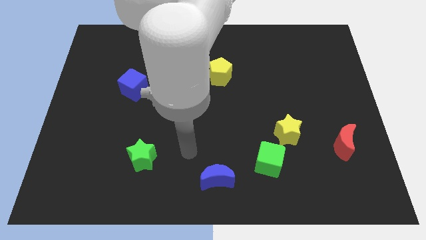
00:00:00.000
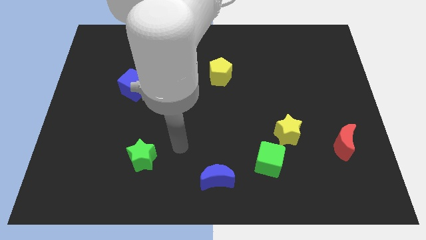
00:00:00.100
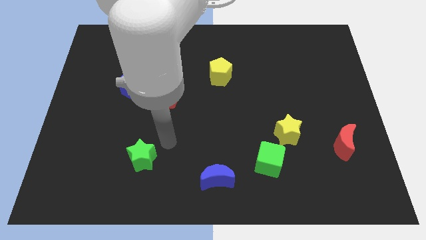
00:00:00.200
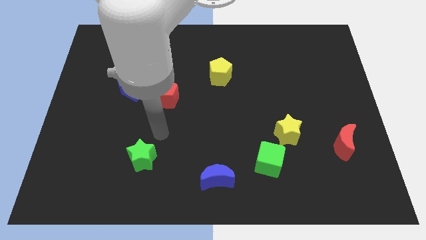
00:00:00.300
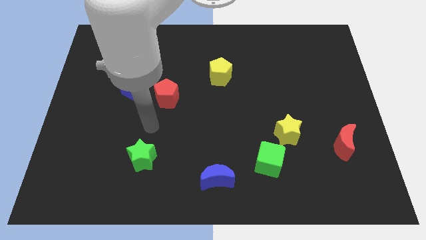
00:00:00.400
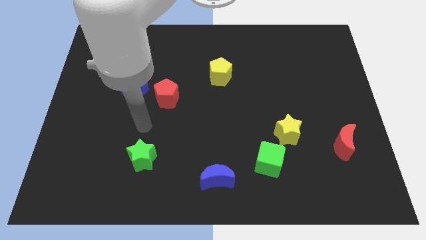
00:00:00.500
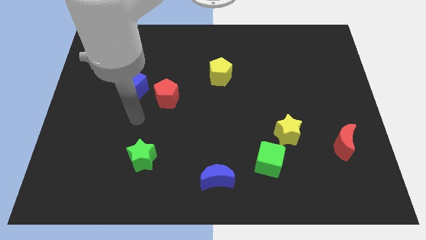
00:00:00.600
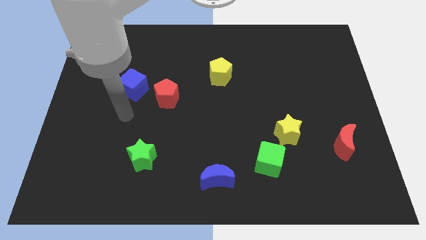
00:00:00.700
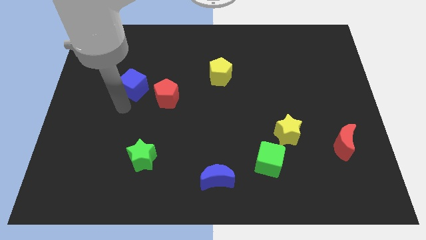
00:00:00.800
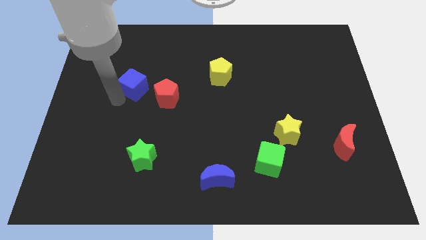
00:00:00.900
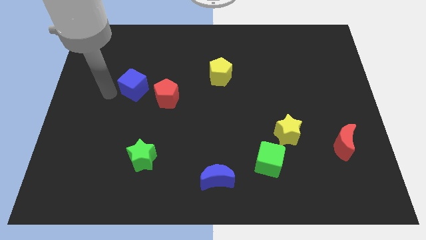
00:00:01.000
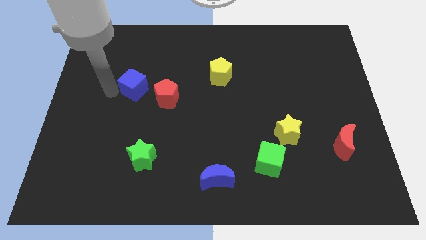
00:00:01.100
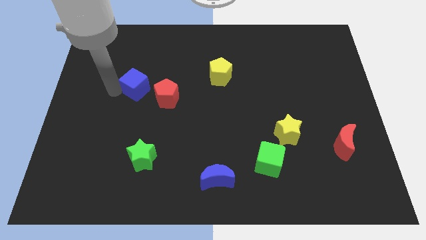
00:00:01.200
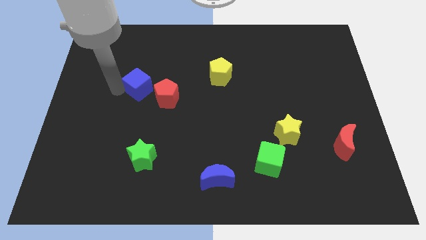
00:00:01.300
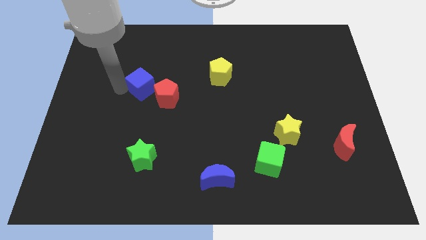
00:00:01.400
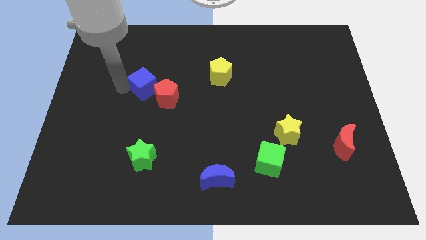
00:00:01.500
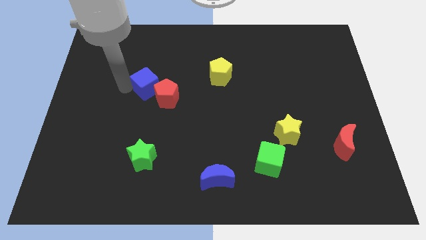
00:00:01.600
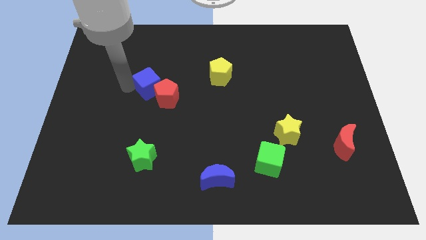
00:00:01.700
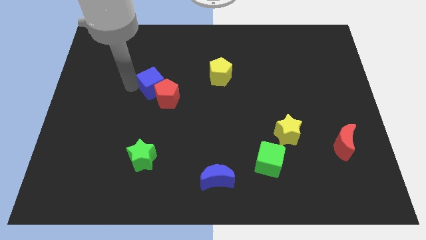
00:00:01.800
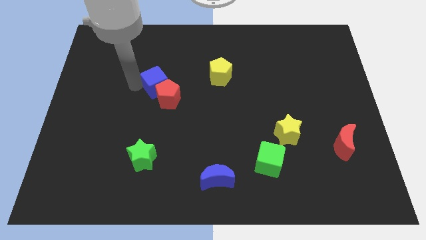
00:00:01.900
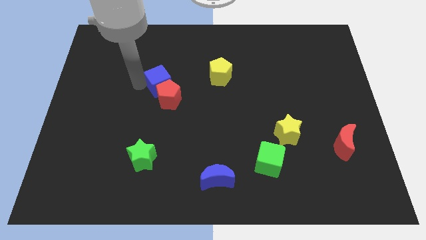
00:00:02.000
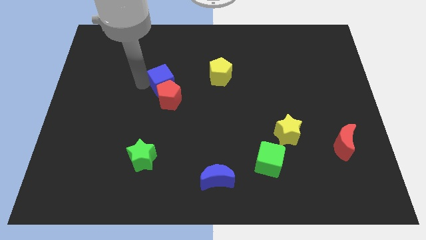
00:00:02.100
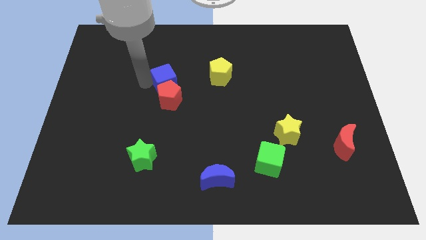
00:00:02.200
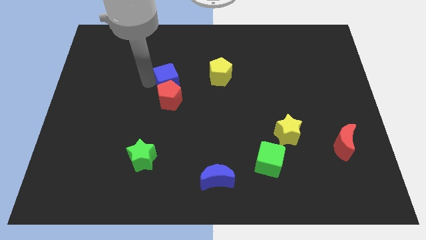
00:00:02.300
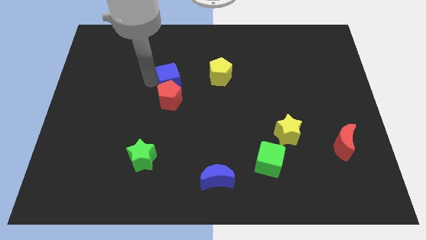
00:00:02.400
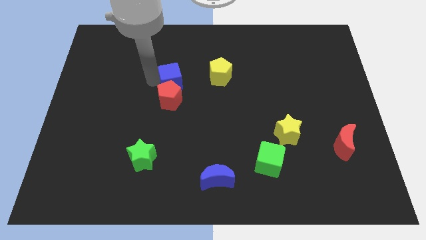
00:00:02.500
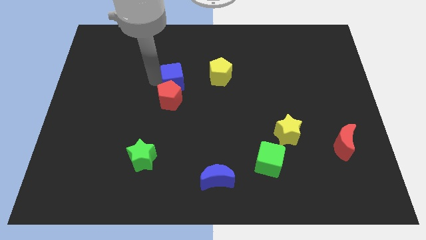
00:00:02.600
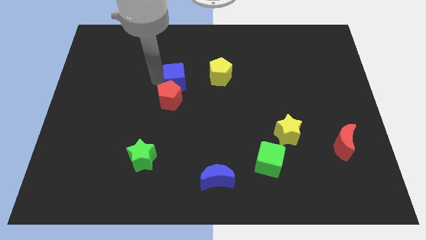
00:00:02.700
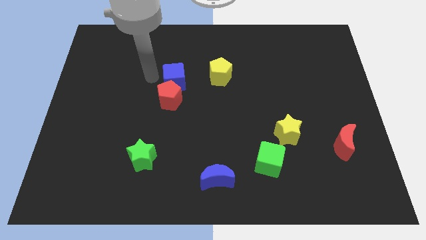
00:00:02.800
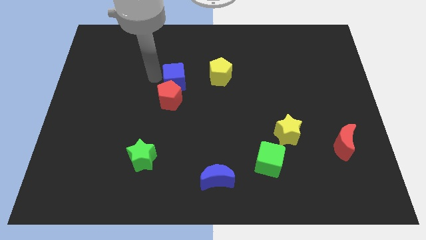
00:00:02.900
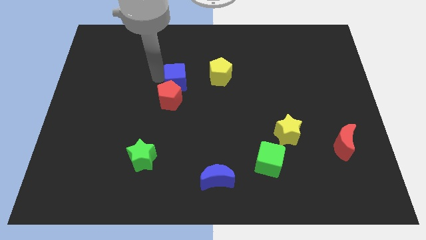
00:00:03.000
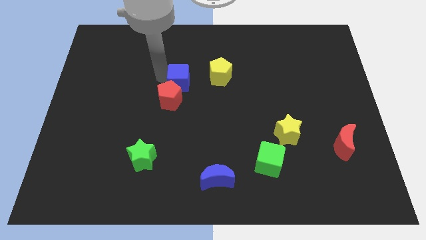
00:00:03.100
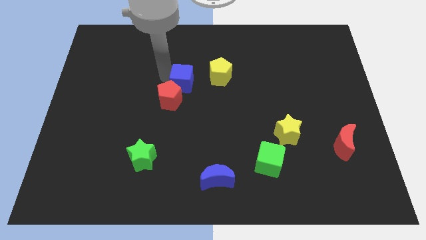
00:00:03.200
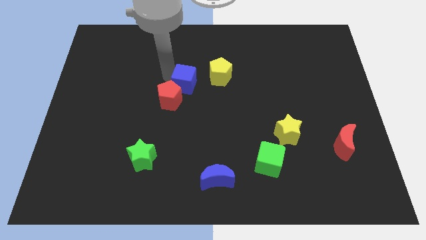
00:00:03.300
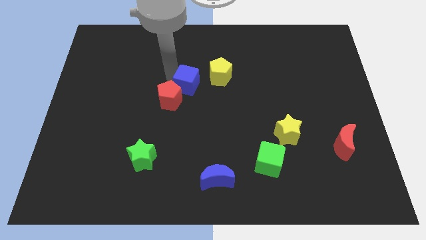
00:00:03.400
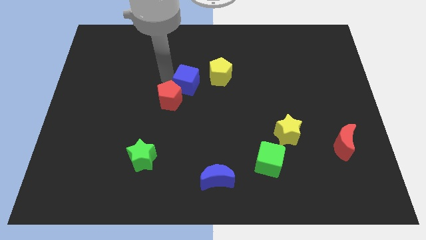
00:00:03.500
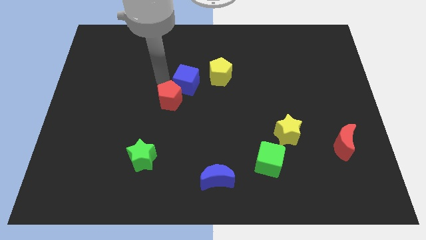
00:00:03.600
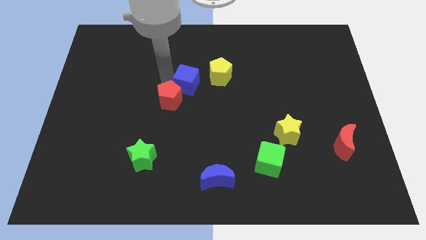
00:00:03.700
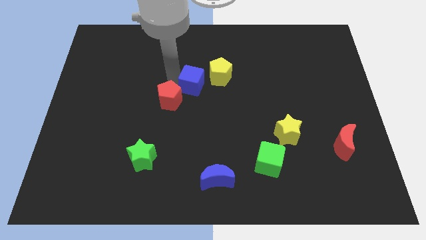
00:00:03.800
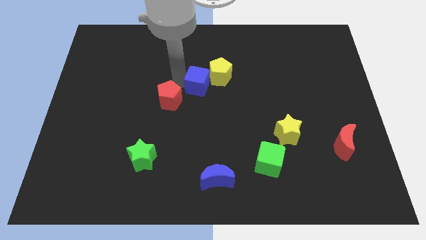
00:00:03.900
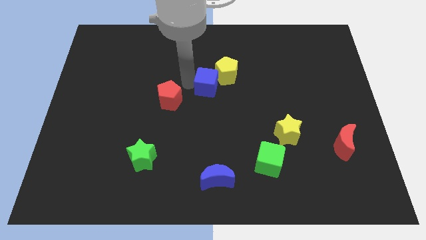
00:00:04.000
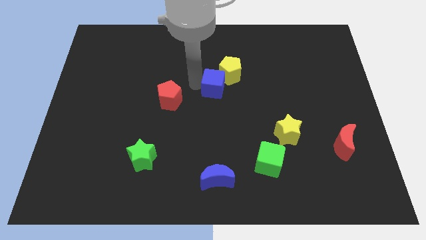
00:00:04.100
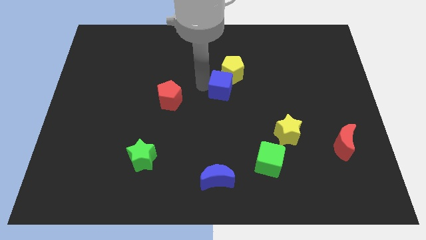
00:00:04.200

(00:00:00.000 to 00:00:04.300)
push the blue cube to the right

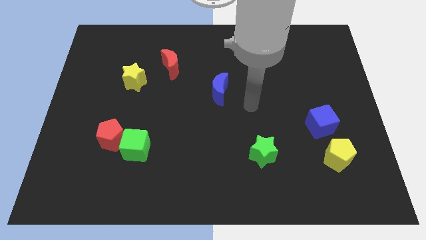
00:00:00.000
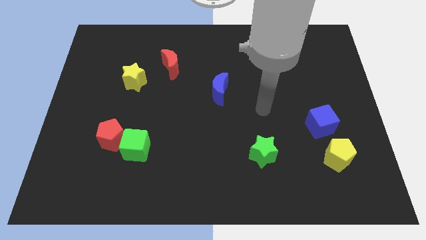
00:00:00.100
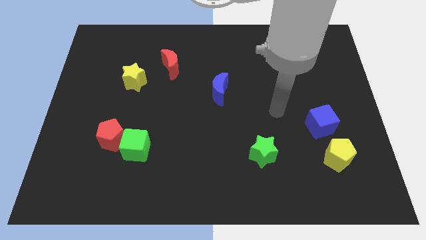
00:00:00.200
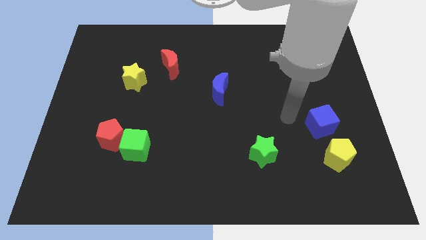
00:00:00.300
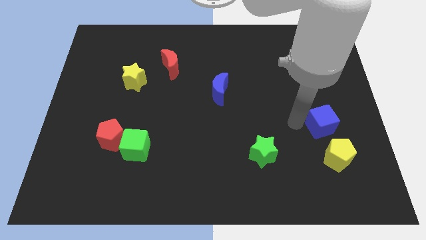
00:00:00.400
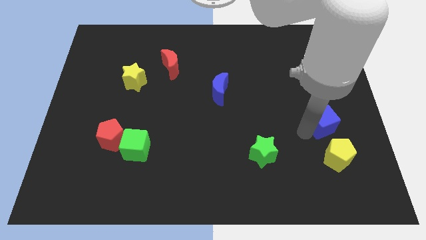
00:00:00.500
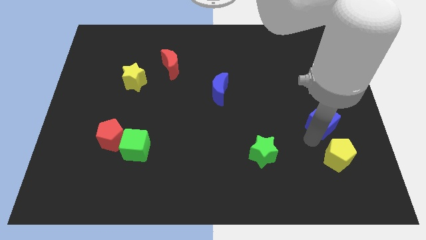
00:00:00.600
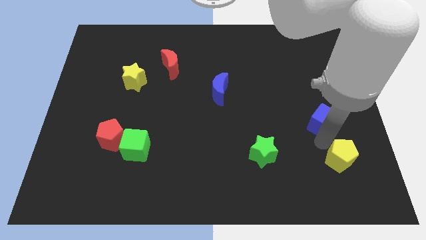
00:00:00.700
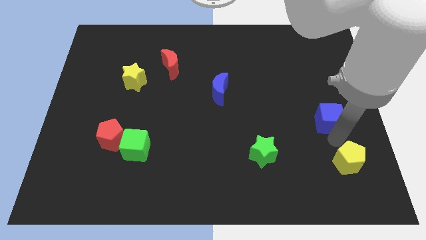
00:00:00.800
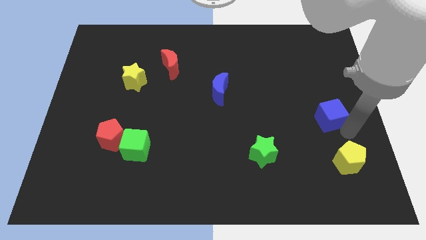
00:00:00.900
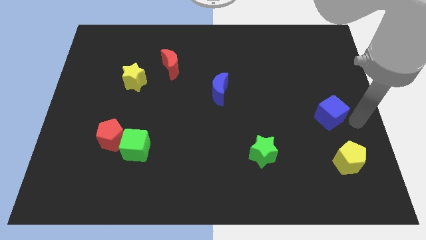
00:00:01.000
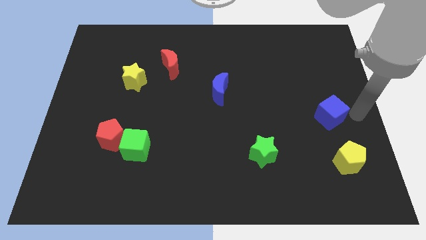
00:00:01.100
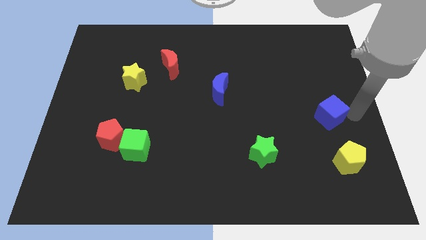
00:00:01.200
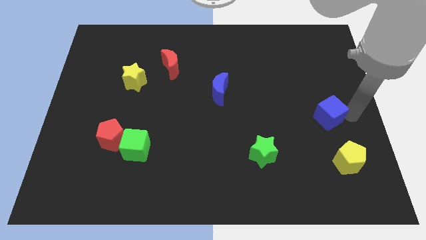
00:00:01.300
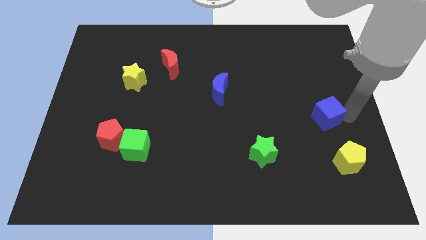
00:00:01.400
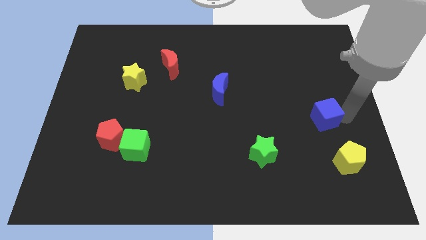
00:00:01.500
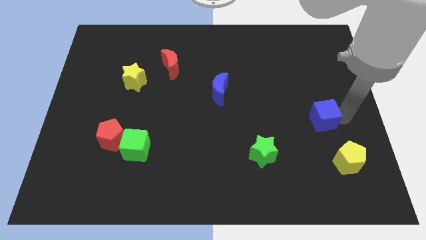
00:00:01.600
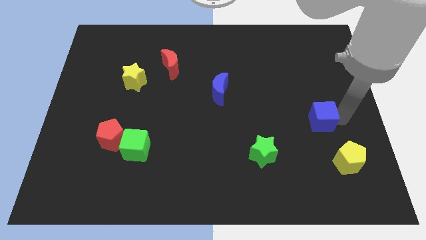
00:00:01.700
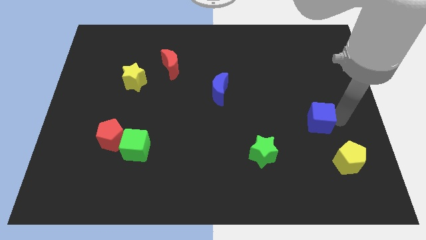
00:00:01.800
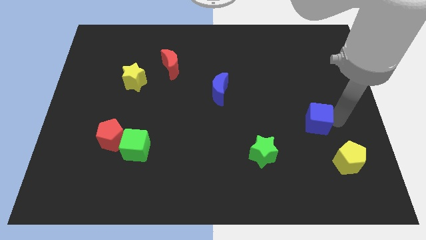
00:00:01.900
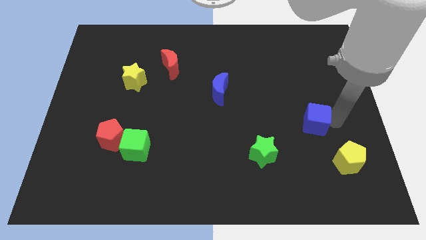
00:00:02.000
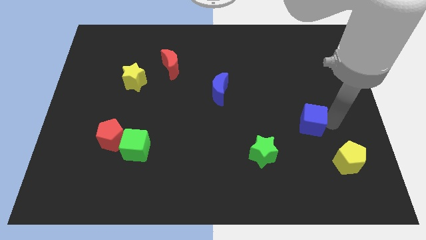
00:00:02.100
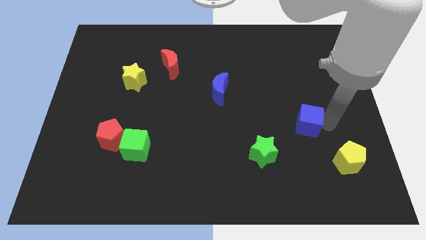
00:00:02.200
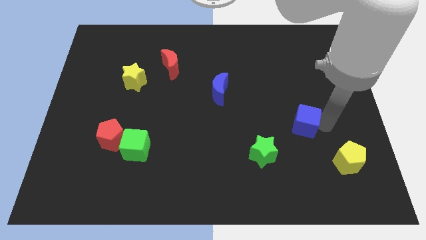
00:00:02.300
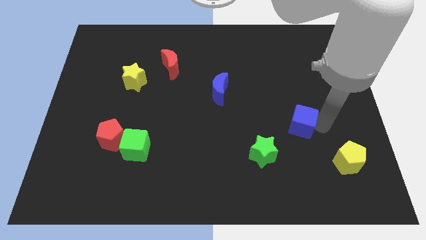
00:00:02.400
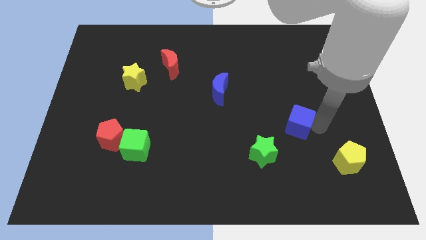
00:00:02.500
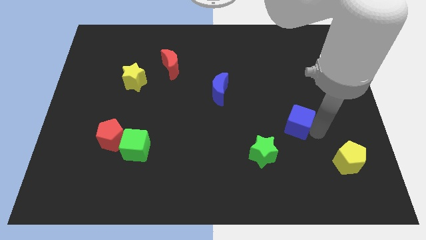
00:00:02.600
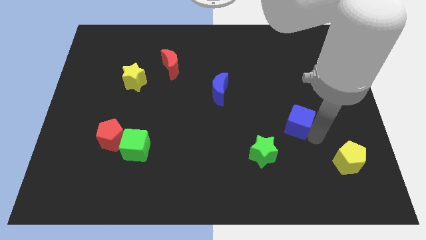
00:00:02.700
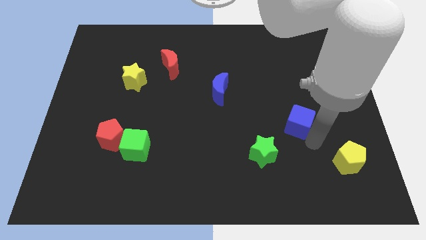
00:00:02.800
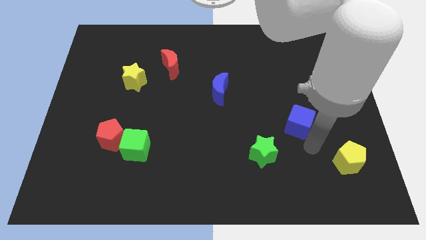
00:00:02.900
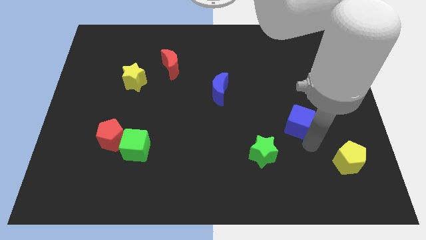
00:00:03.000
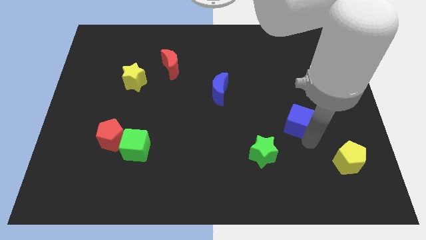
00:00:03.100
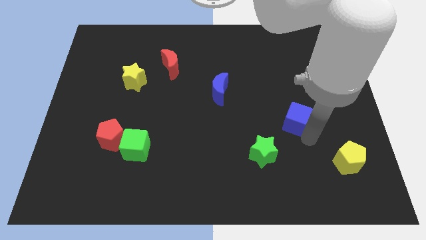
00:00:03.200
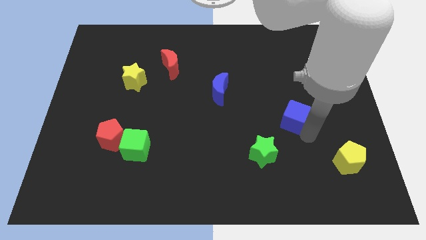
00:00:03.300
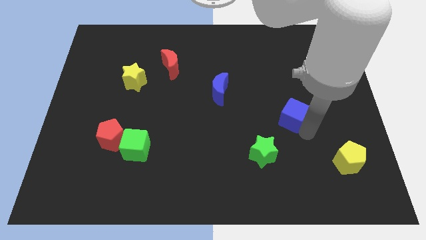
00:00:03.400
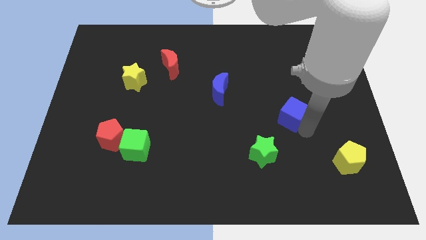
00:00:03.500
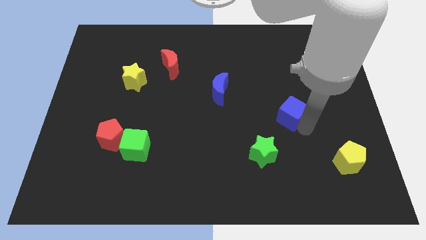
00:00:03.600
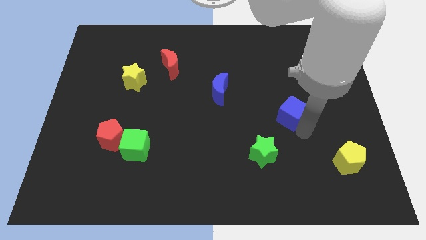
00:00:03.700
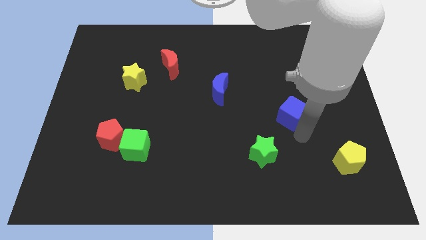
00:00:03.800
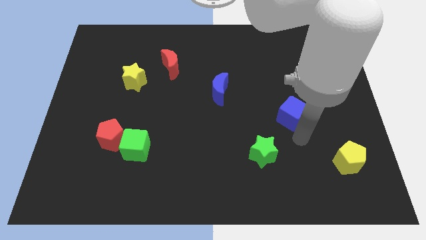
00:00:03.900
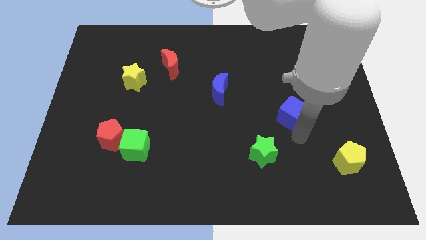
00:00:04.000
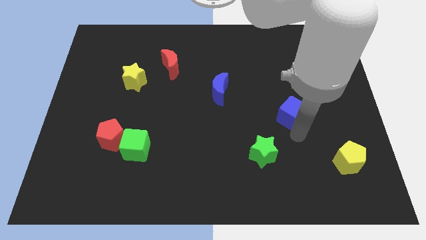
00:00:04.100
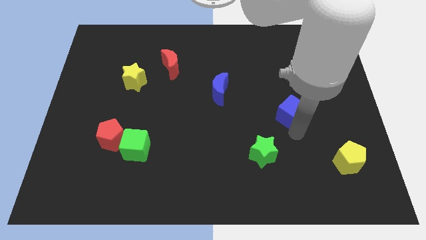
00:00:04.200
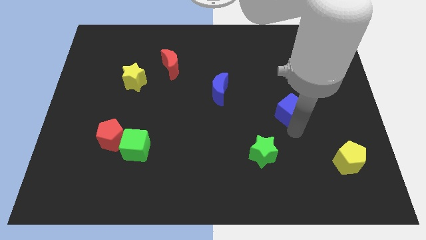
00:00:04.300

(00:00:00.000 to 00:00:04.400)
push the blue cube up and then left somewhat
